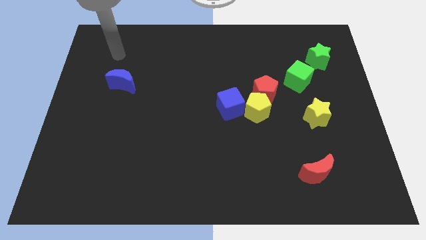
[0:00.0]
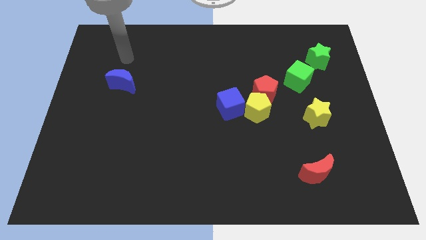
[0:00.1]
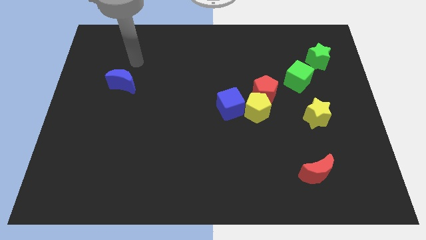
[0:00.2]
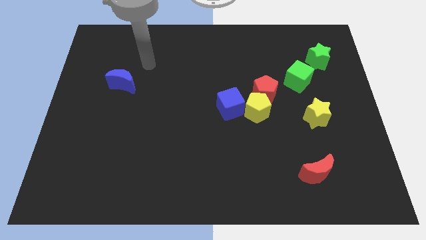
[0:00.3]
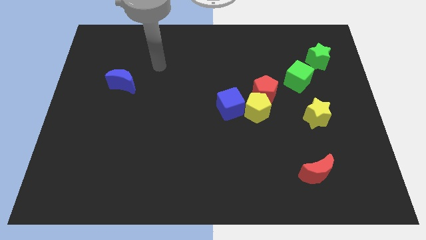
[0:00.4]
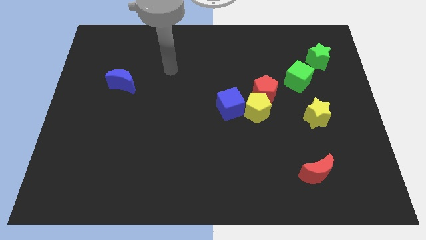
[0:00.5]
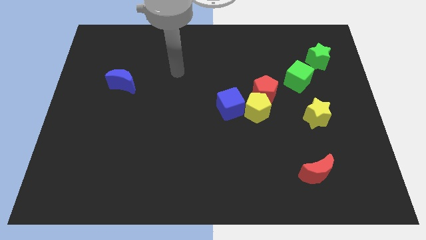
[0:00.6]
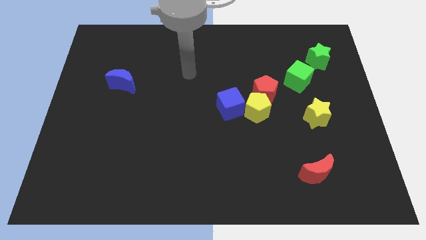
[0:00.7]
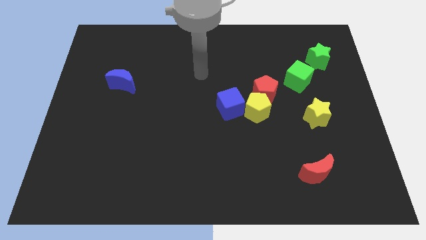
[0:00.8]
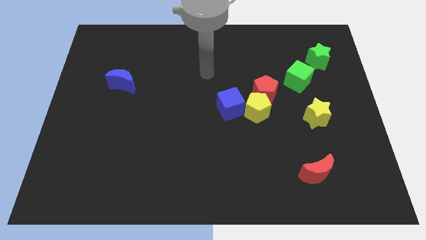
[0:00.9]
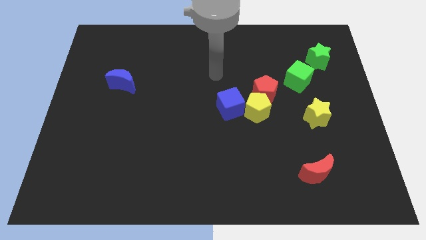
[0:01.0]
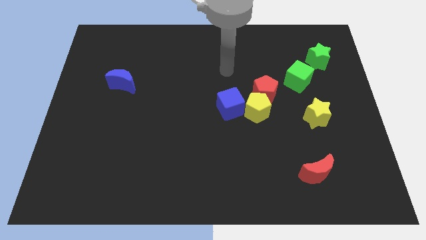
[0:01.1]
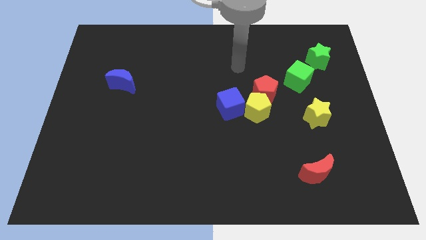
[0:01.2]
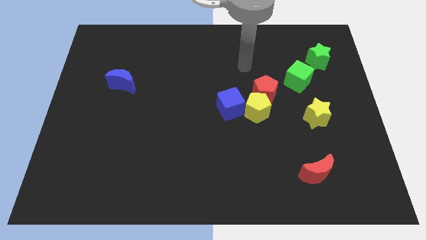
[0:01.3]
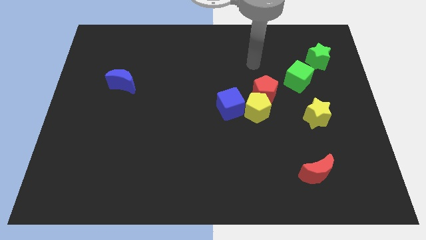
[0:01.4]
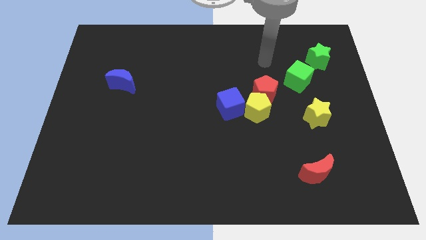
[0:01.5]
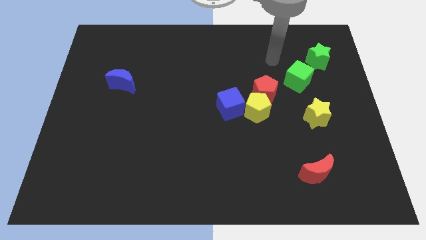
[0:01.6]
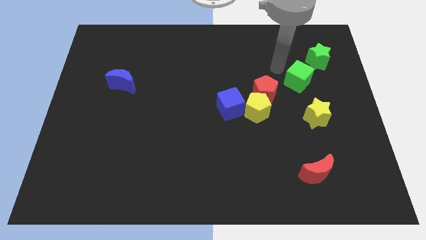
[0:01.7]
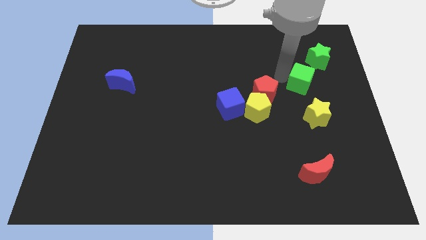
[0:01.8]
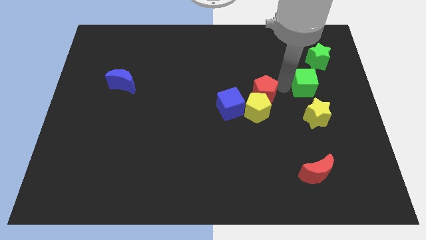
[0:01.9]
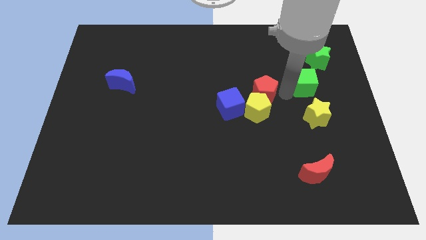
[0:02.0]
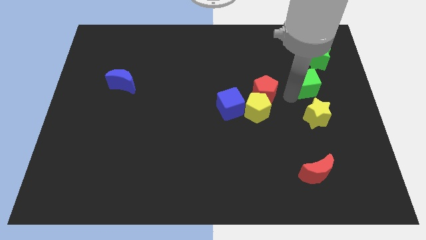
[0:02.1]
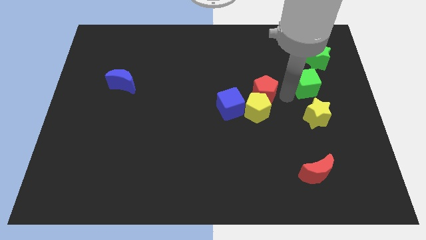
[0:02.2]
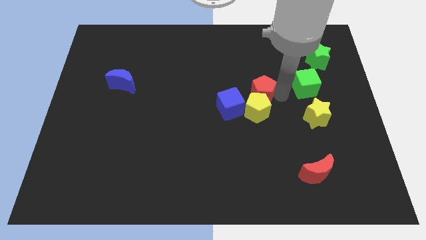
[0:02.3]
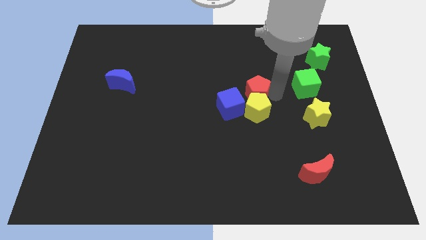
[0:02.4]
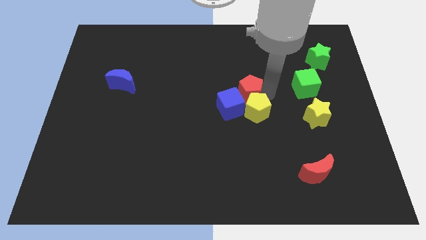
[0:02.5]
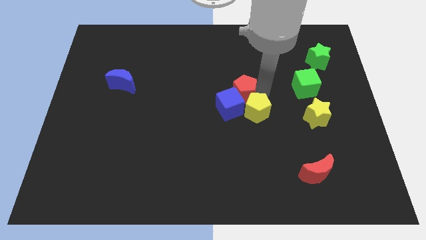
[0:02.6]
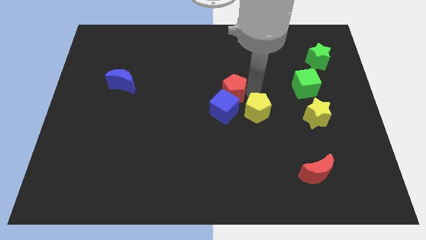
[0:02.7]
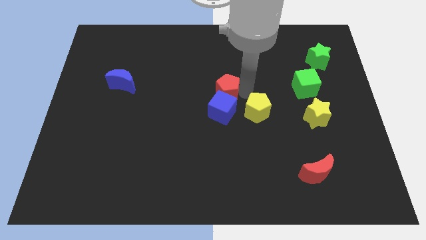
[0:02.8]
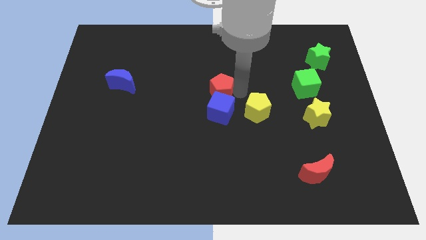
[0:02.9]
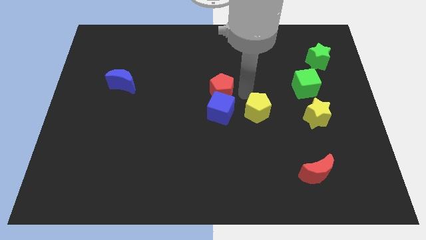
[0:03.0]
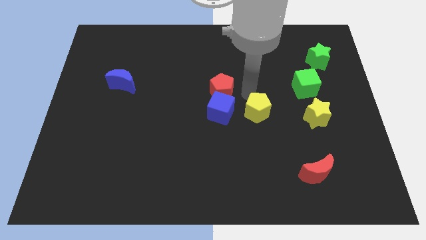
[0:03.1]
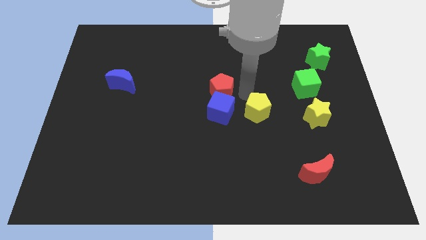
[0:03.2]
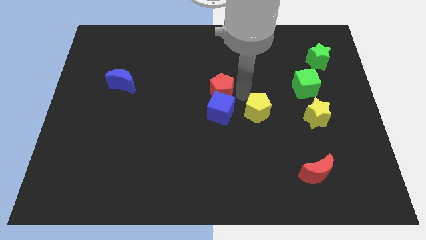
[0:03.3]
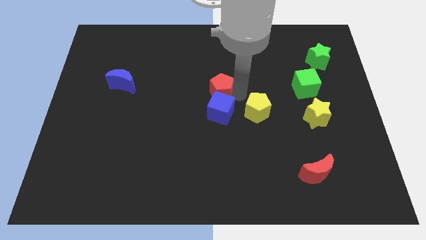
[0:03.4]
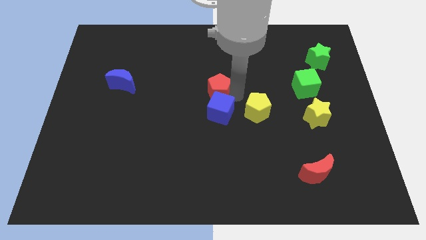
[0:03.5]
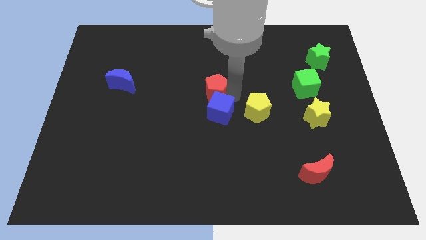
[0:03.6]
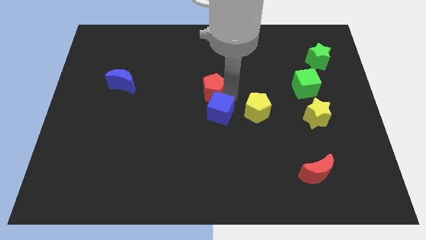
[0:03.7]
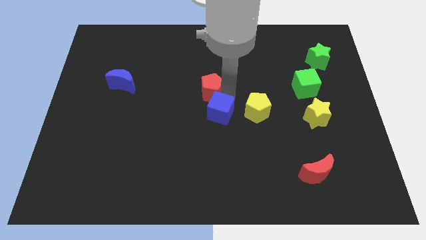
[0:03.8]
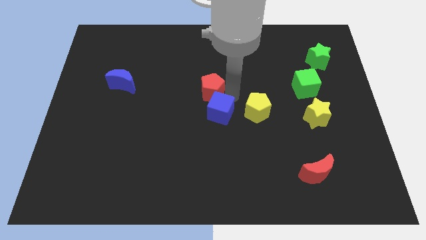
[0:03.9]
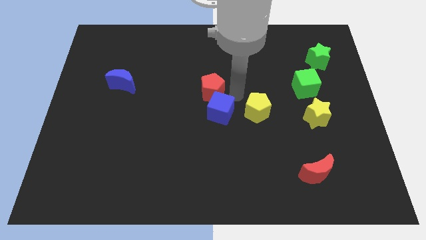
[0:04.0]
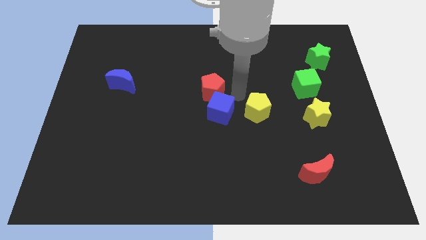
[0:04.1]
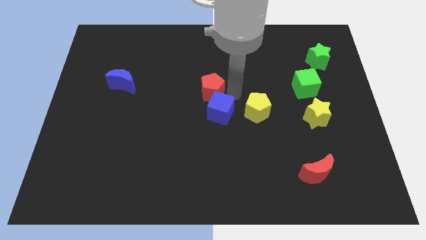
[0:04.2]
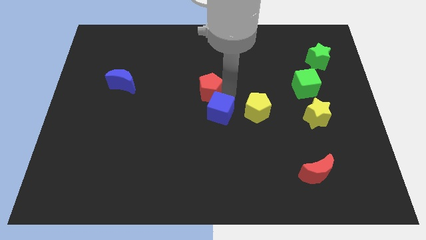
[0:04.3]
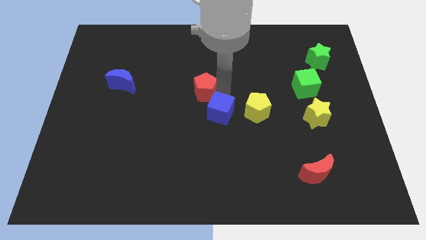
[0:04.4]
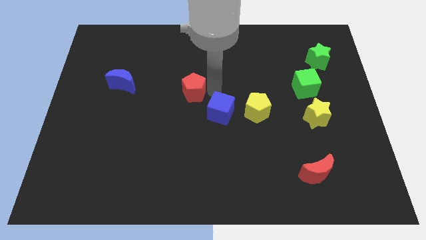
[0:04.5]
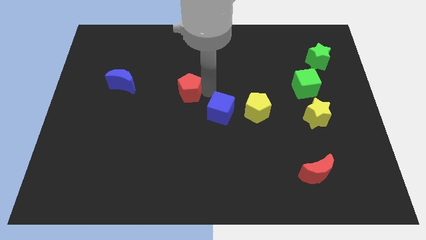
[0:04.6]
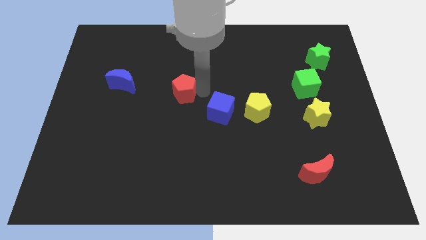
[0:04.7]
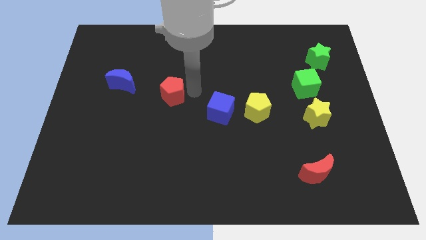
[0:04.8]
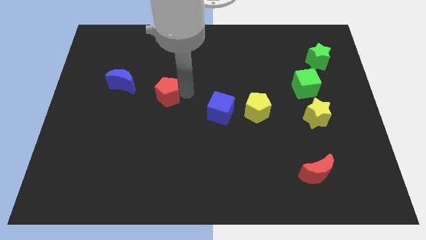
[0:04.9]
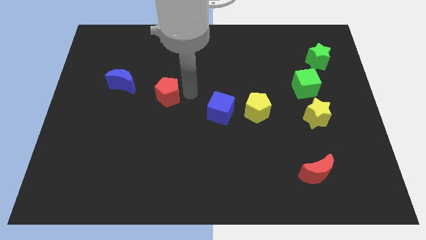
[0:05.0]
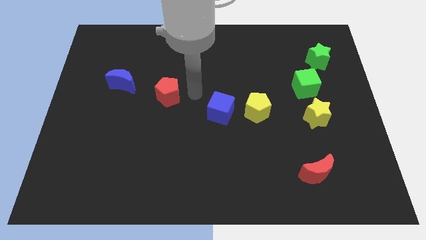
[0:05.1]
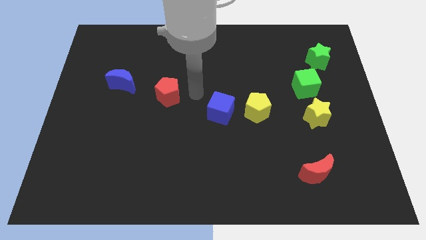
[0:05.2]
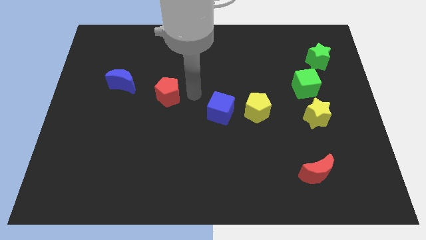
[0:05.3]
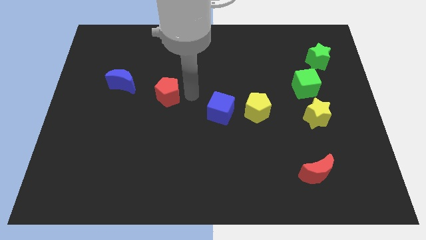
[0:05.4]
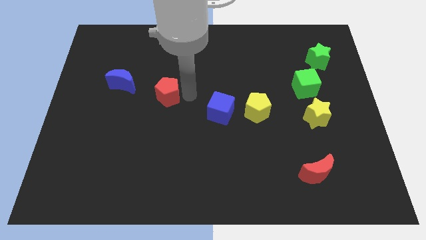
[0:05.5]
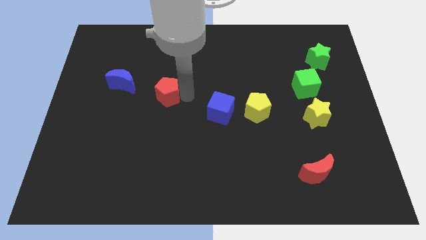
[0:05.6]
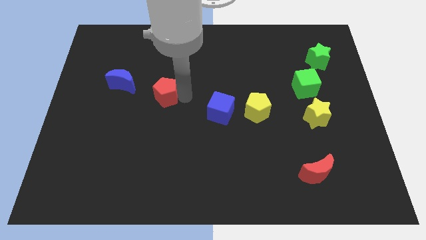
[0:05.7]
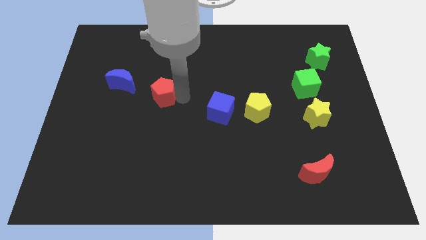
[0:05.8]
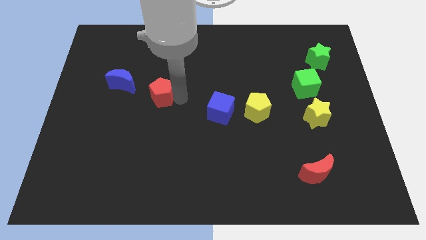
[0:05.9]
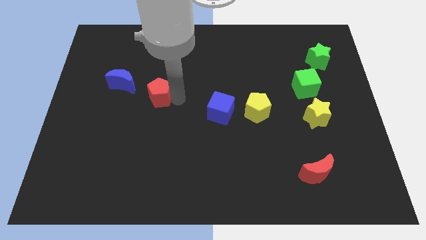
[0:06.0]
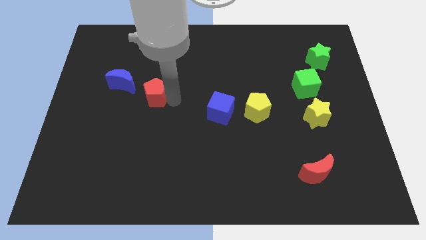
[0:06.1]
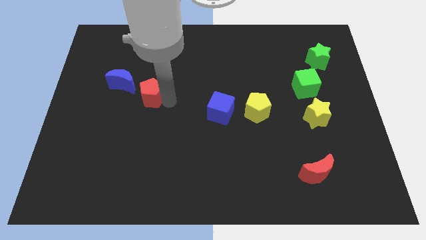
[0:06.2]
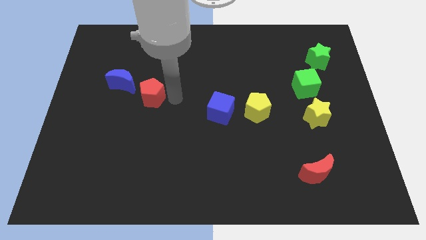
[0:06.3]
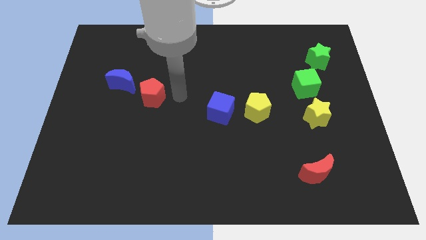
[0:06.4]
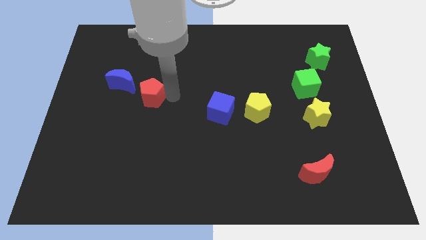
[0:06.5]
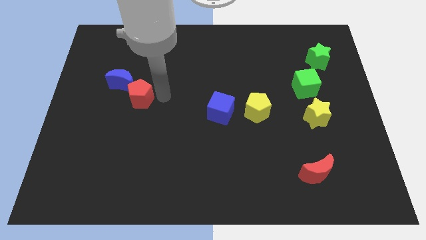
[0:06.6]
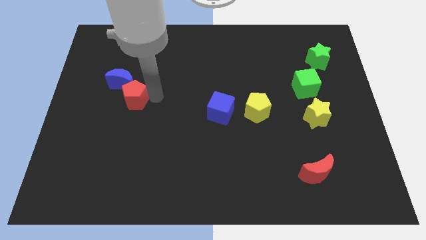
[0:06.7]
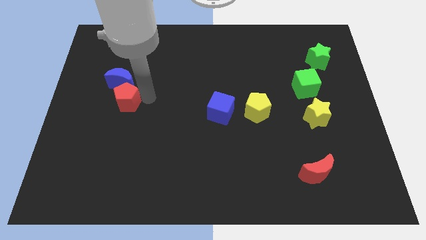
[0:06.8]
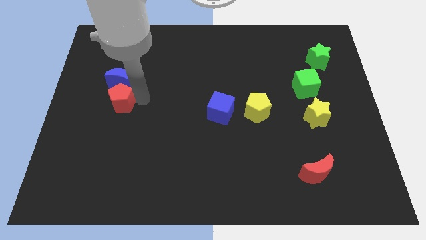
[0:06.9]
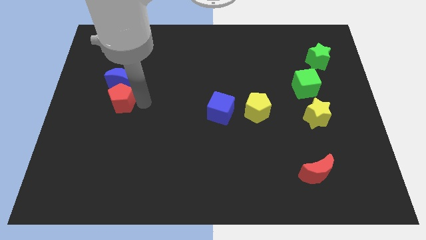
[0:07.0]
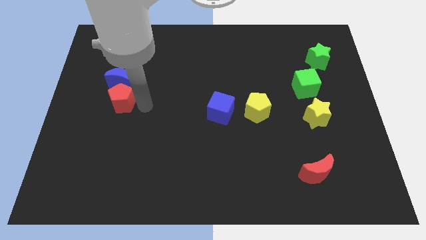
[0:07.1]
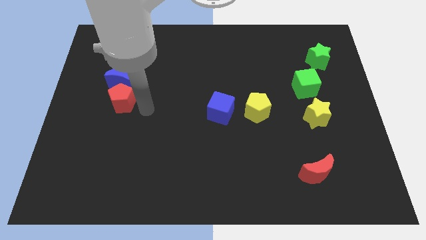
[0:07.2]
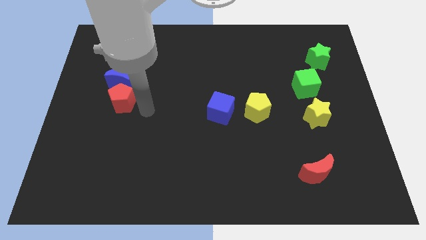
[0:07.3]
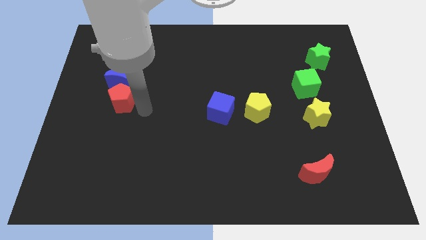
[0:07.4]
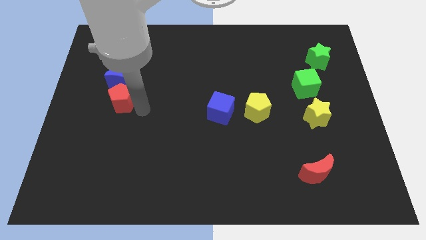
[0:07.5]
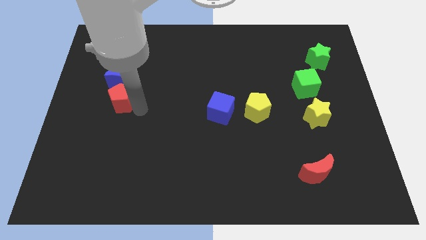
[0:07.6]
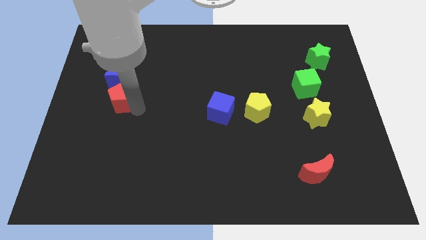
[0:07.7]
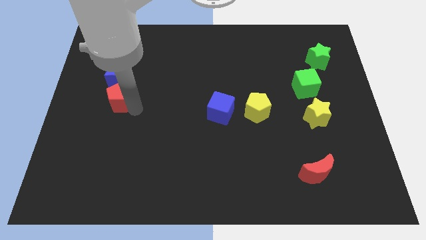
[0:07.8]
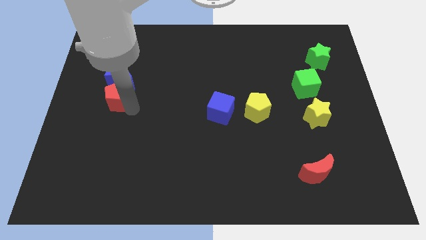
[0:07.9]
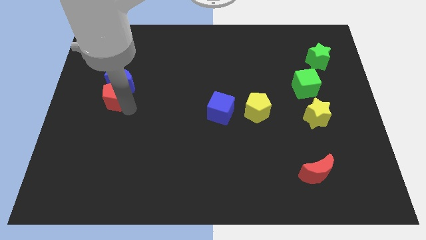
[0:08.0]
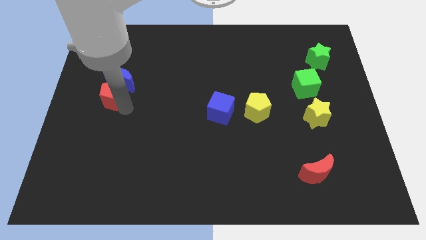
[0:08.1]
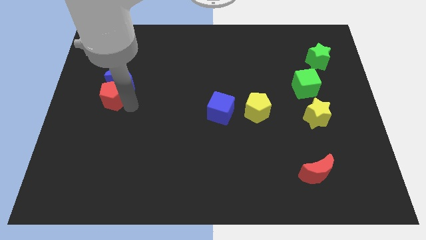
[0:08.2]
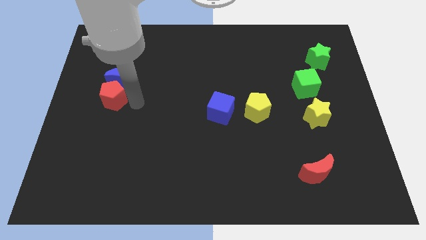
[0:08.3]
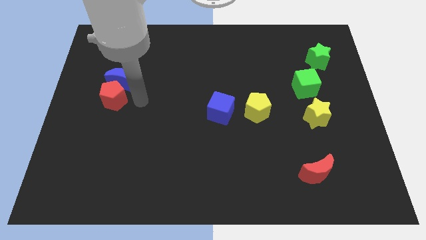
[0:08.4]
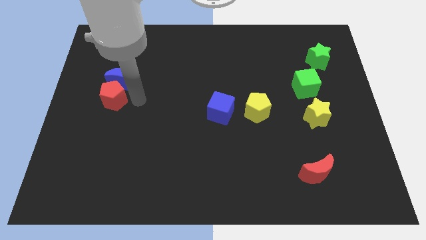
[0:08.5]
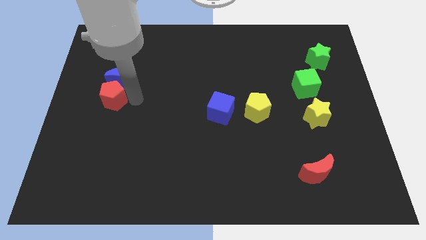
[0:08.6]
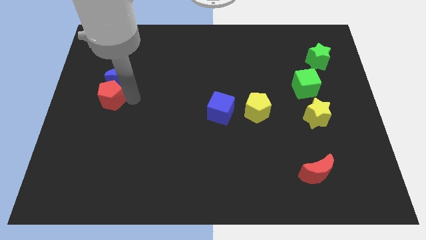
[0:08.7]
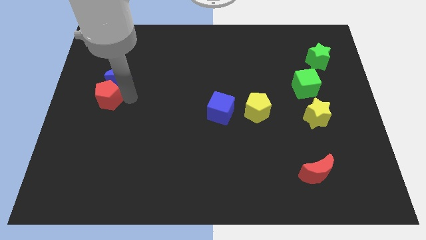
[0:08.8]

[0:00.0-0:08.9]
push the red pentagon to the center left
